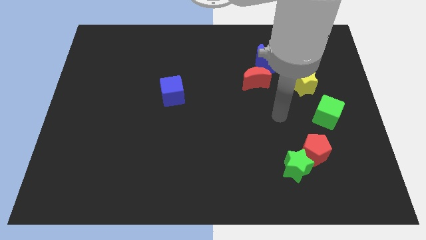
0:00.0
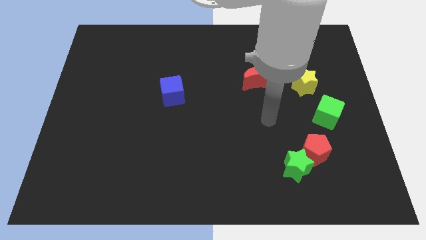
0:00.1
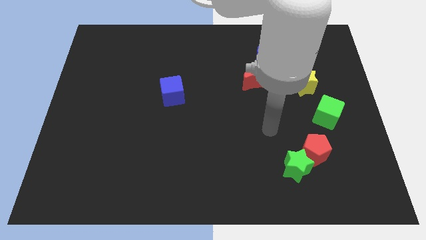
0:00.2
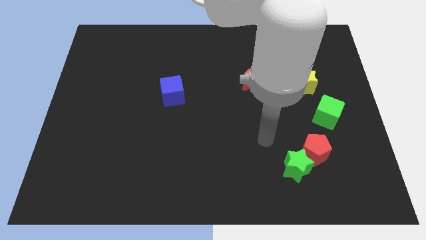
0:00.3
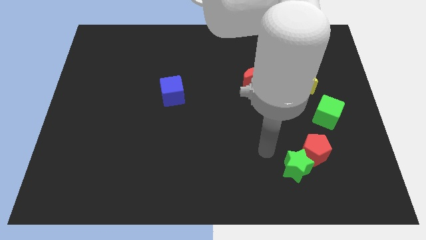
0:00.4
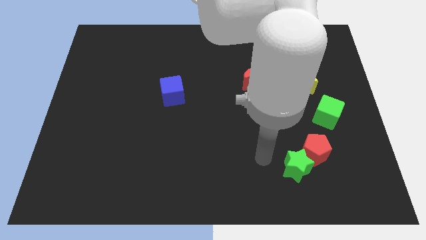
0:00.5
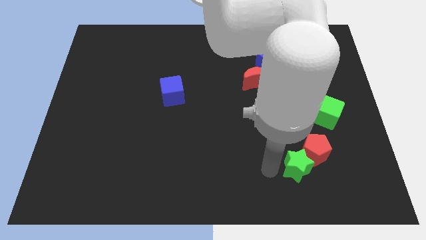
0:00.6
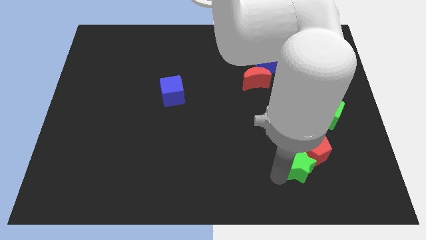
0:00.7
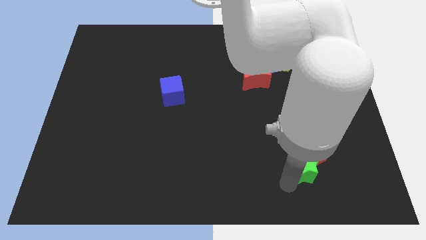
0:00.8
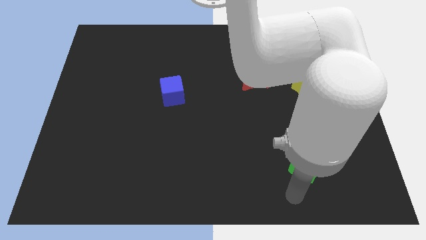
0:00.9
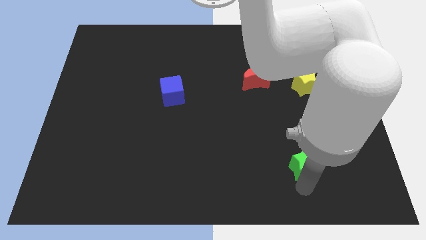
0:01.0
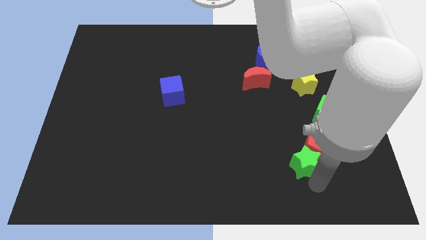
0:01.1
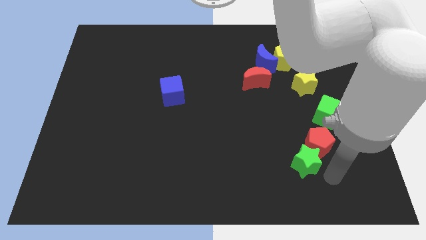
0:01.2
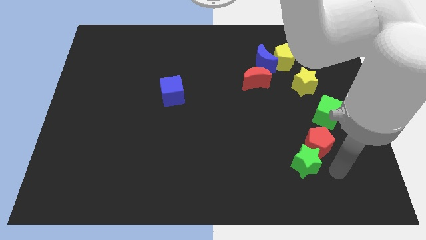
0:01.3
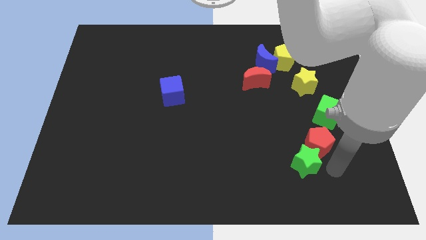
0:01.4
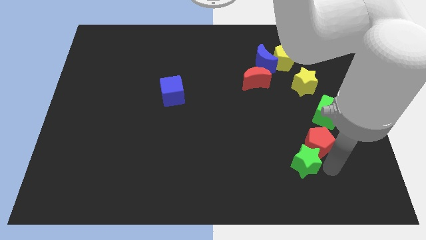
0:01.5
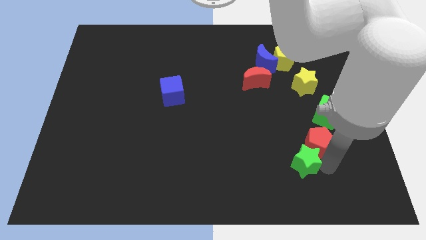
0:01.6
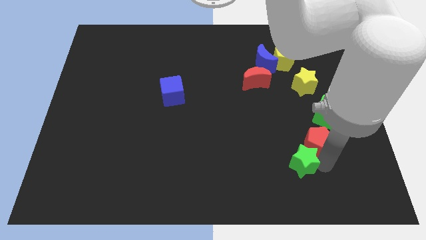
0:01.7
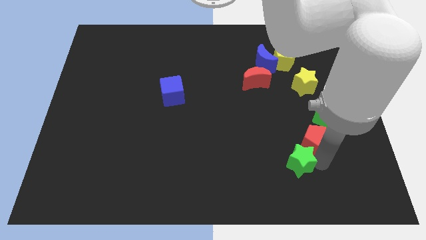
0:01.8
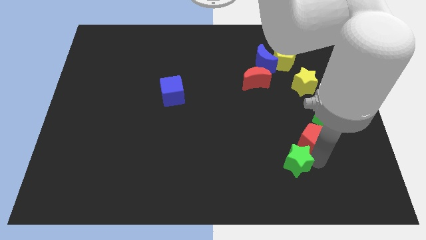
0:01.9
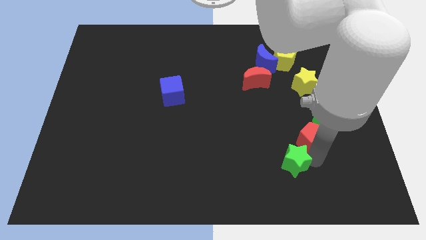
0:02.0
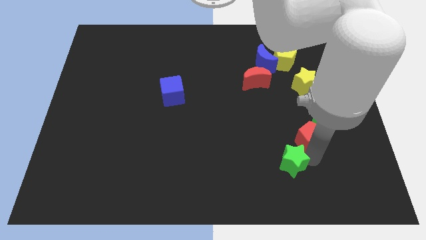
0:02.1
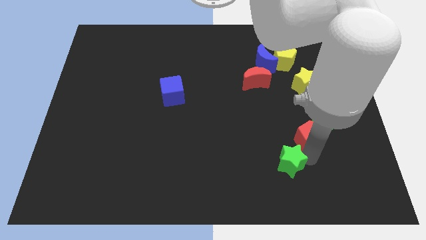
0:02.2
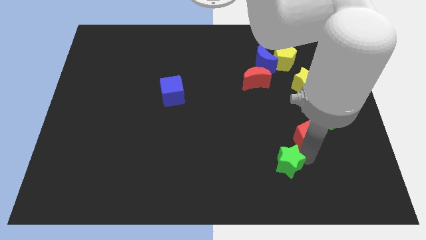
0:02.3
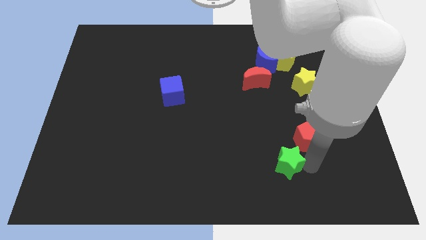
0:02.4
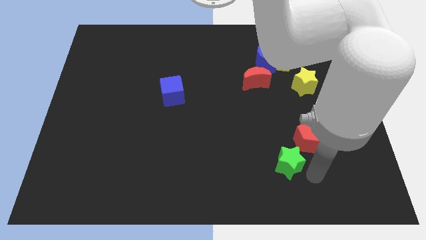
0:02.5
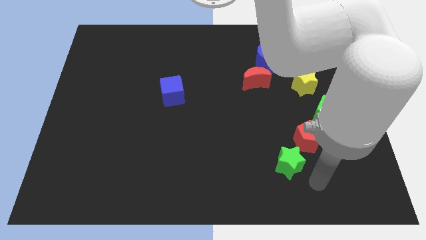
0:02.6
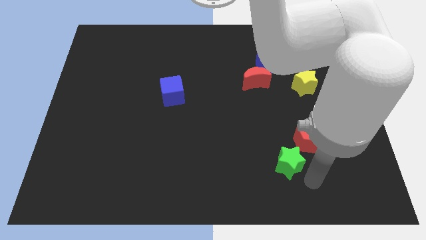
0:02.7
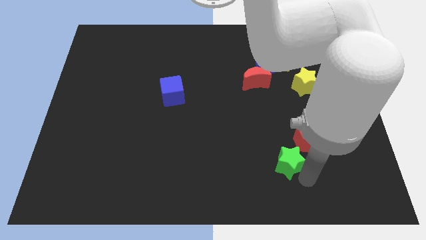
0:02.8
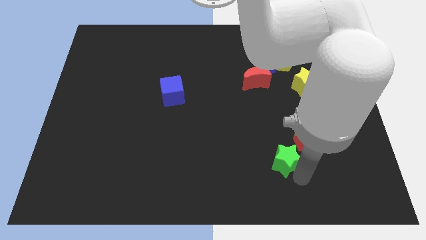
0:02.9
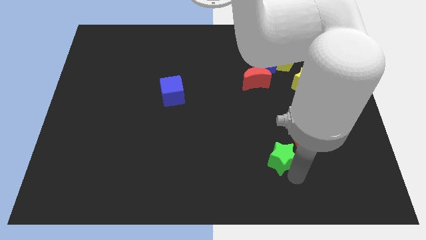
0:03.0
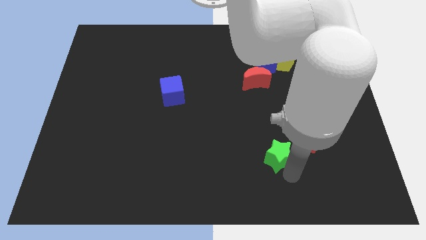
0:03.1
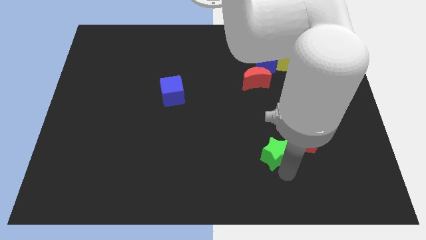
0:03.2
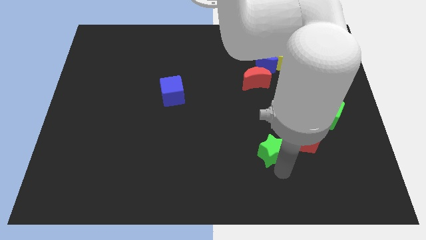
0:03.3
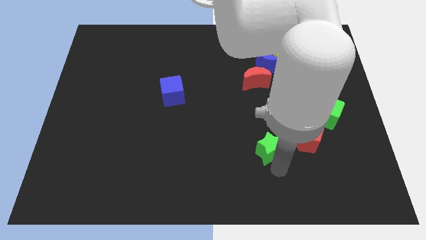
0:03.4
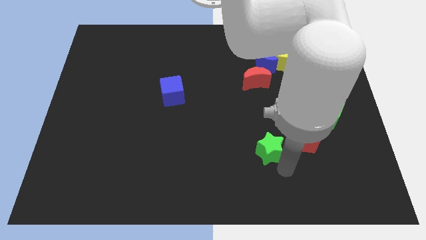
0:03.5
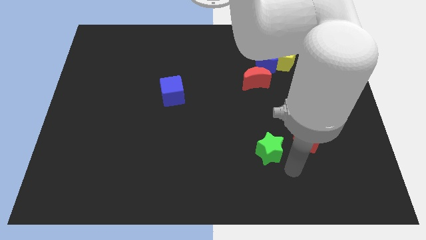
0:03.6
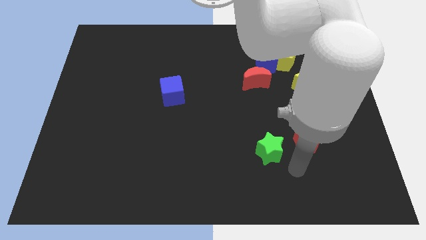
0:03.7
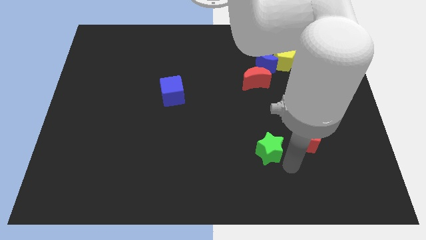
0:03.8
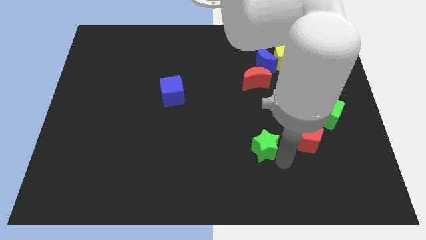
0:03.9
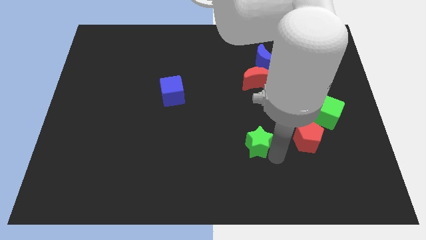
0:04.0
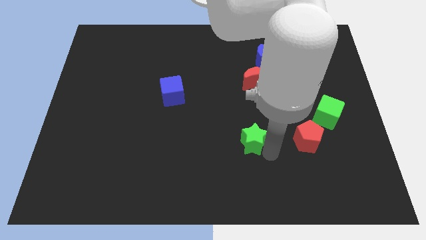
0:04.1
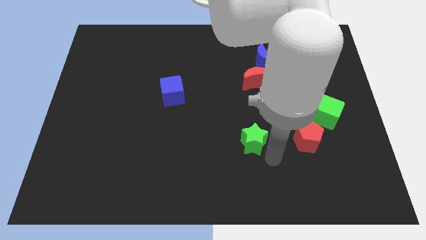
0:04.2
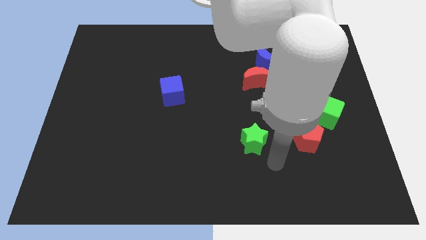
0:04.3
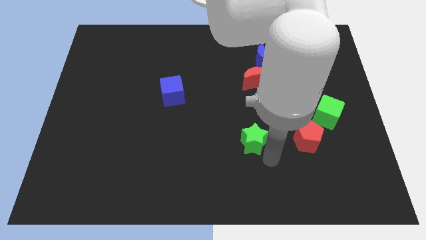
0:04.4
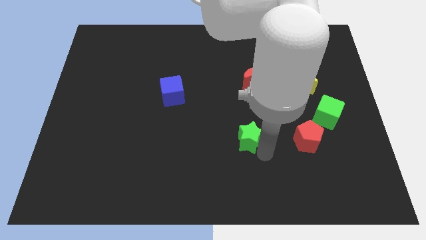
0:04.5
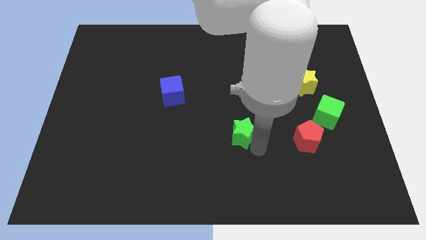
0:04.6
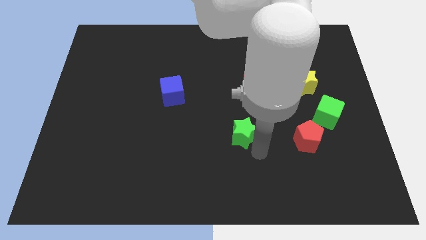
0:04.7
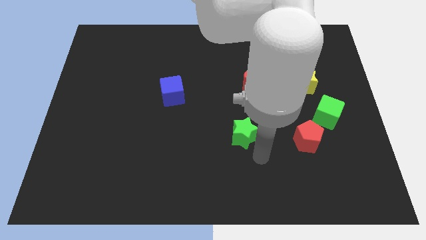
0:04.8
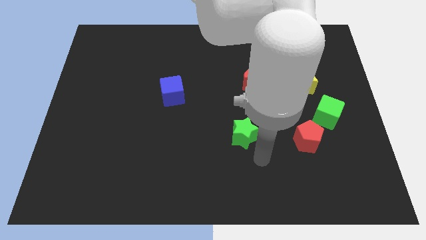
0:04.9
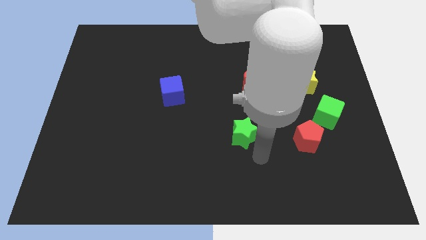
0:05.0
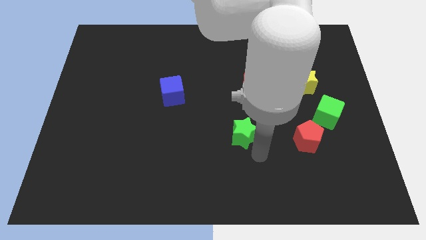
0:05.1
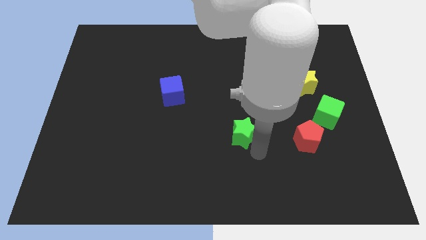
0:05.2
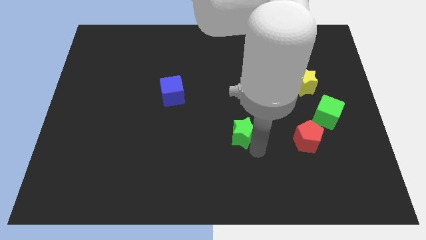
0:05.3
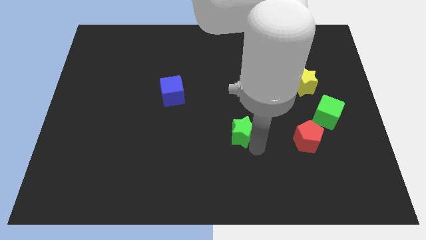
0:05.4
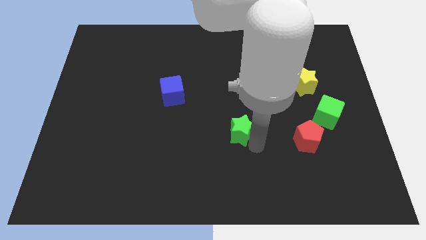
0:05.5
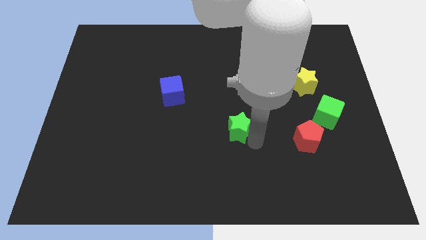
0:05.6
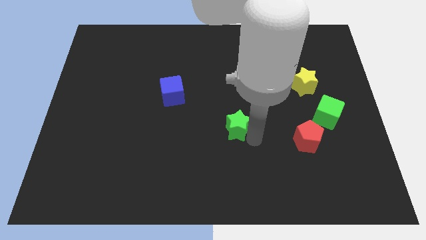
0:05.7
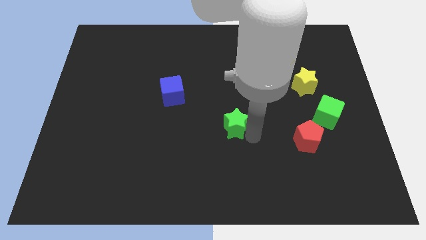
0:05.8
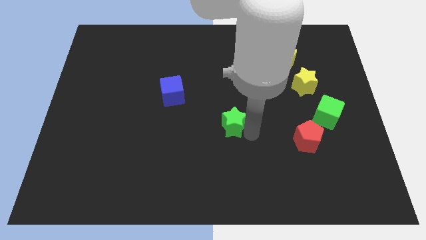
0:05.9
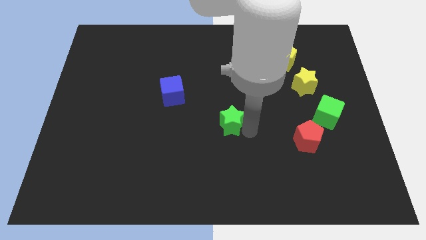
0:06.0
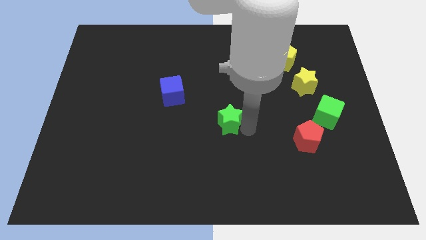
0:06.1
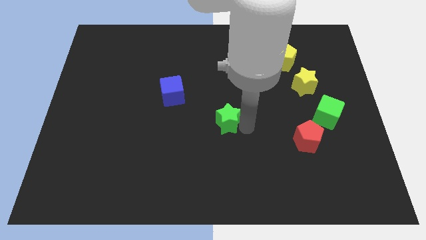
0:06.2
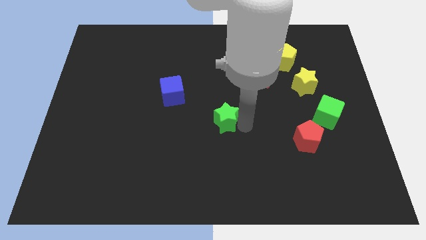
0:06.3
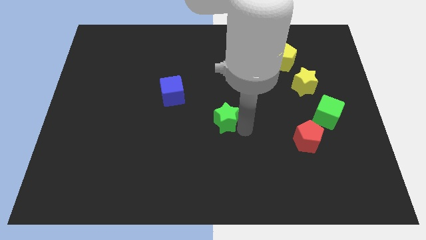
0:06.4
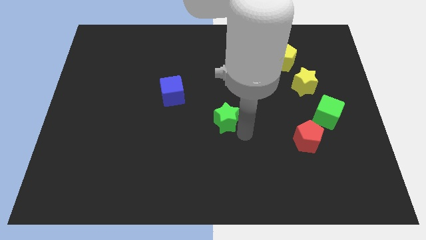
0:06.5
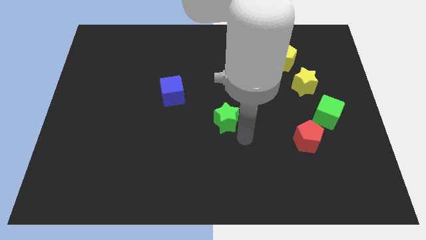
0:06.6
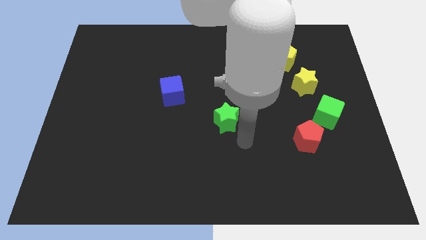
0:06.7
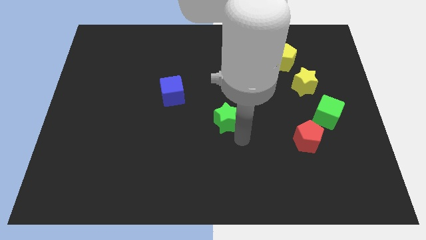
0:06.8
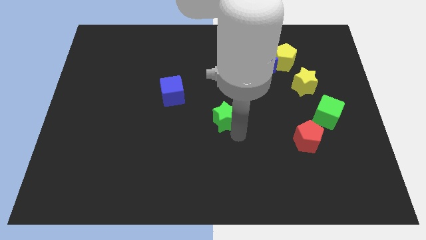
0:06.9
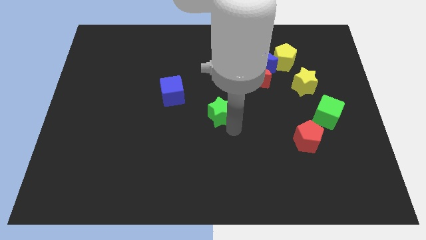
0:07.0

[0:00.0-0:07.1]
push the green star up and then to the left

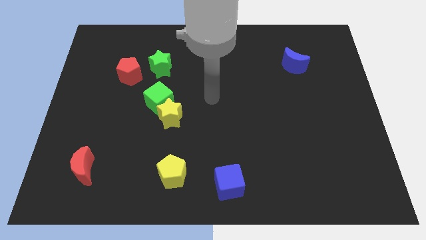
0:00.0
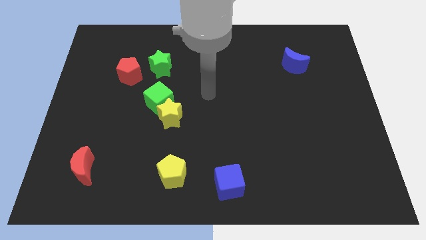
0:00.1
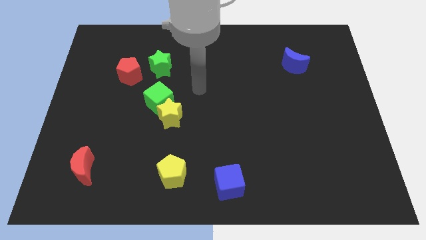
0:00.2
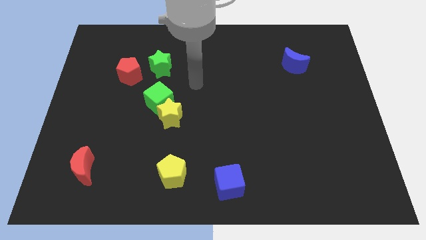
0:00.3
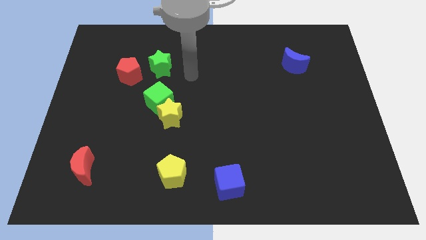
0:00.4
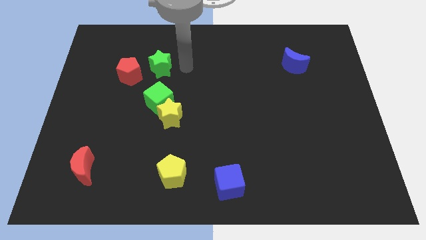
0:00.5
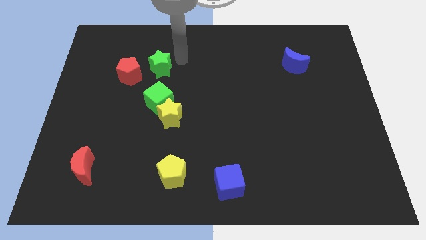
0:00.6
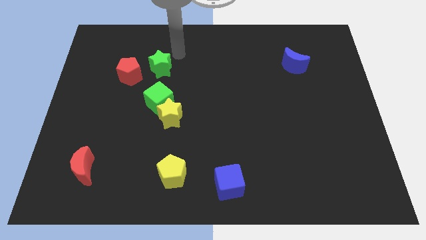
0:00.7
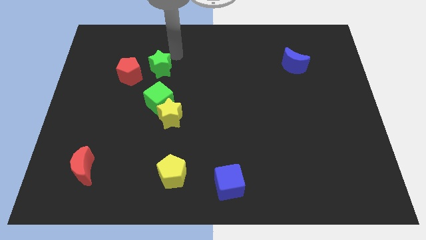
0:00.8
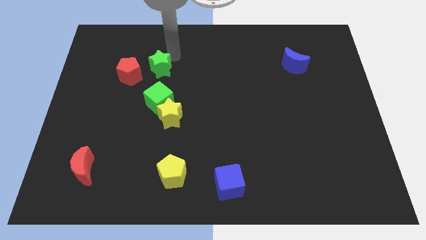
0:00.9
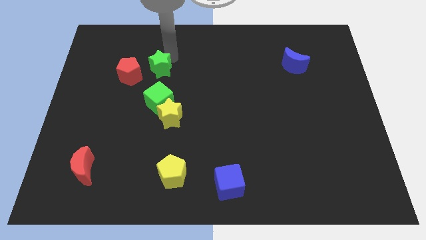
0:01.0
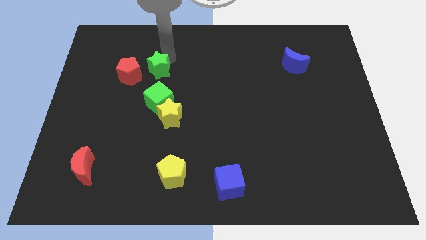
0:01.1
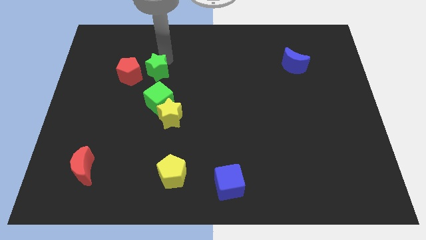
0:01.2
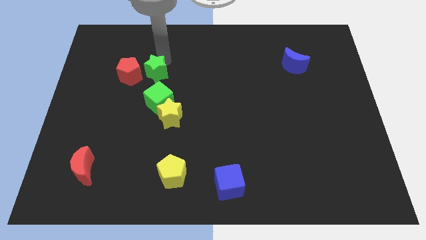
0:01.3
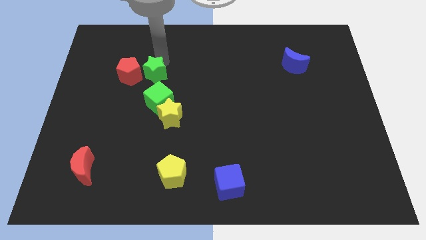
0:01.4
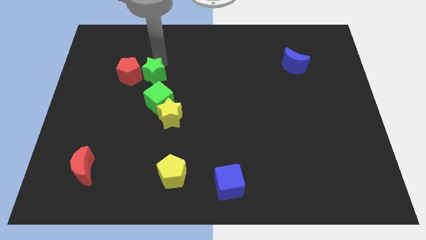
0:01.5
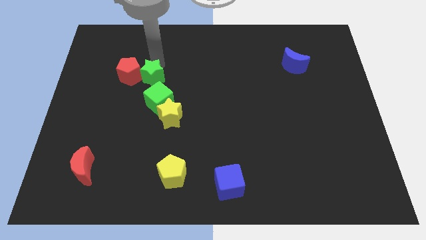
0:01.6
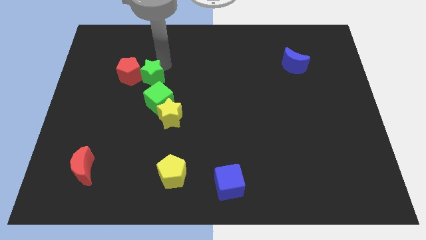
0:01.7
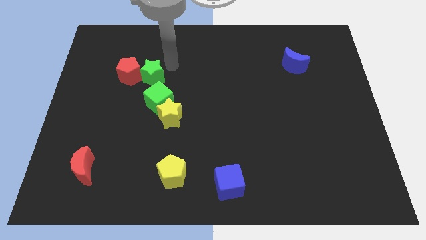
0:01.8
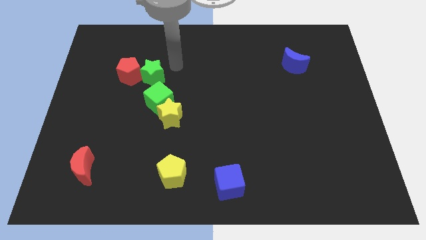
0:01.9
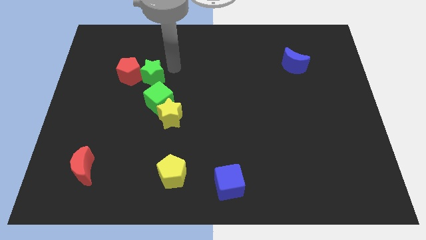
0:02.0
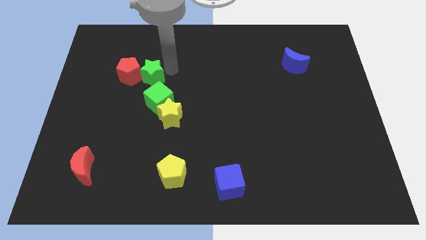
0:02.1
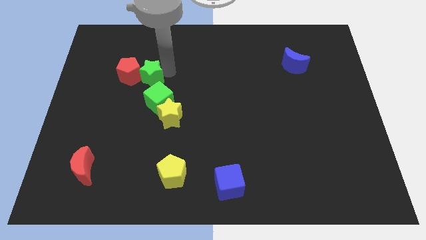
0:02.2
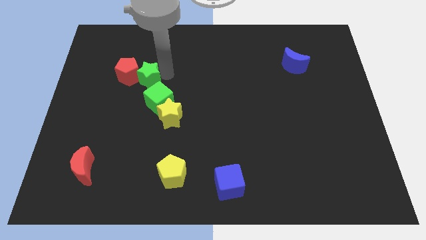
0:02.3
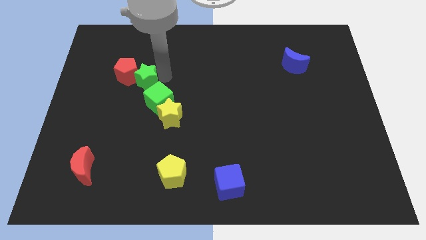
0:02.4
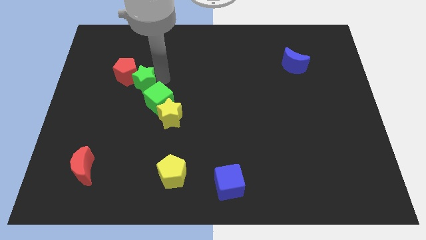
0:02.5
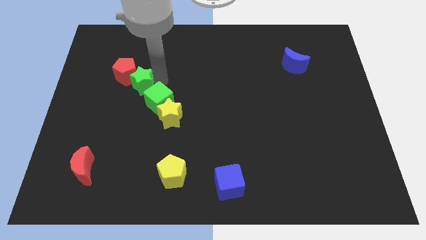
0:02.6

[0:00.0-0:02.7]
slightly slide the green star diagonally downwards and left
